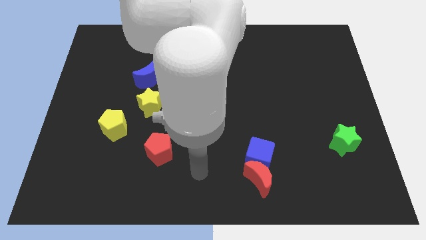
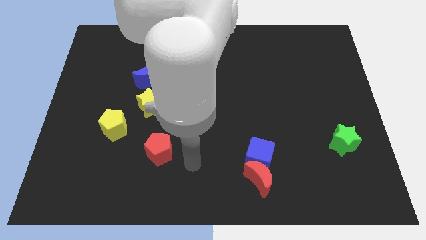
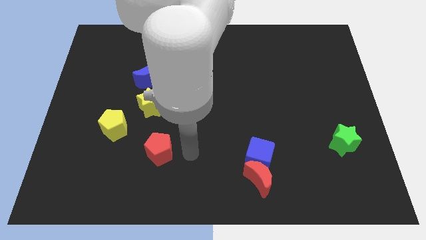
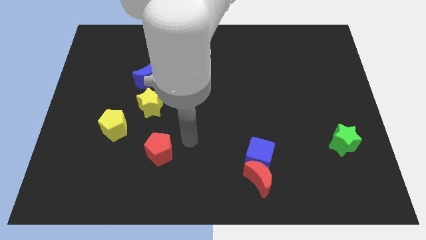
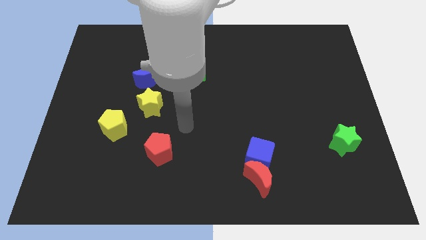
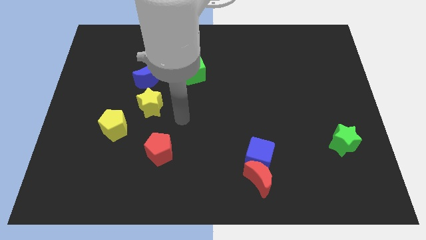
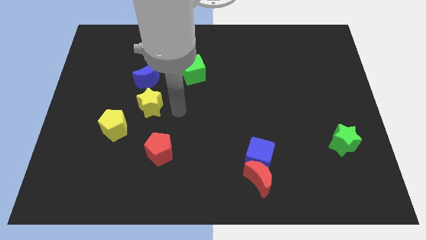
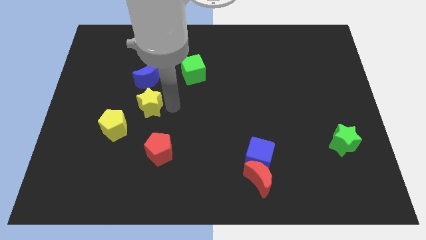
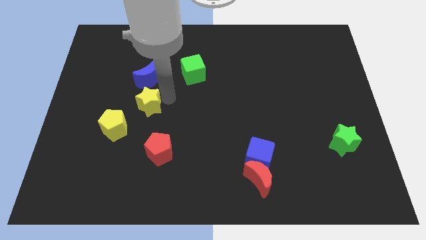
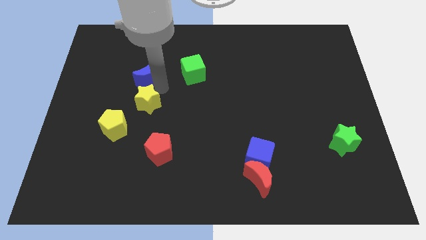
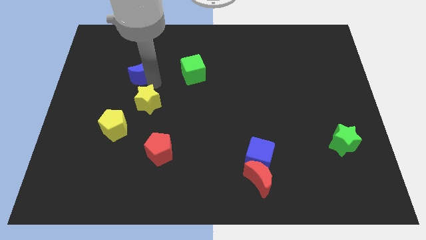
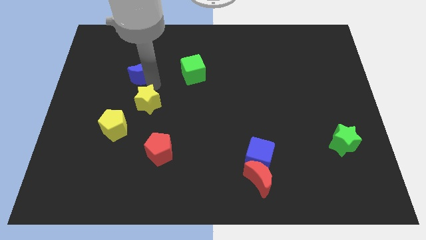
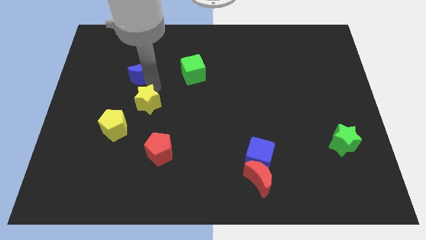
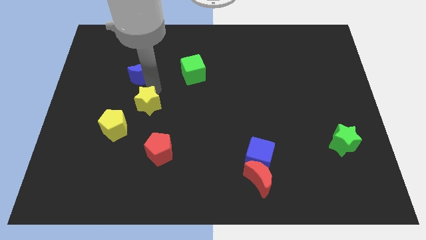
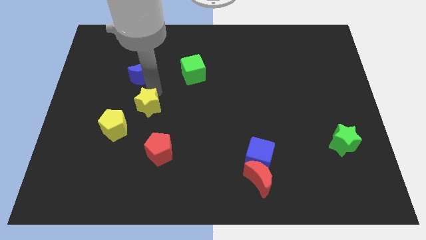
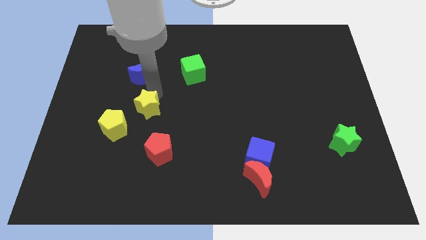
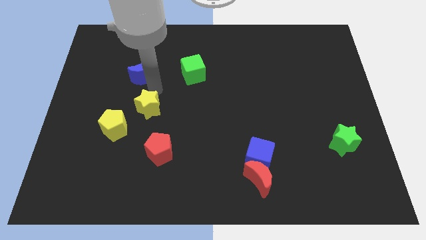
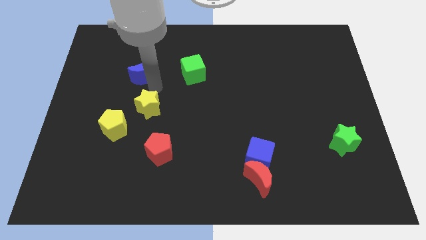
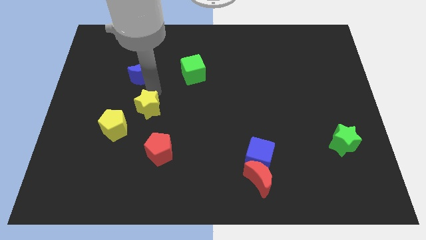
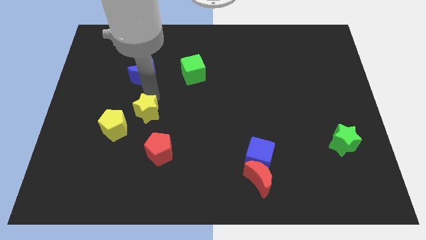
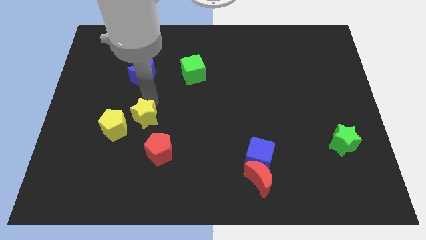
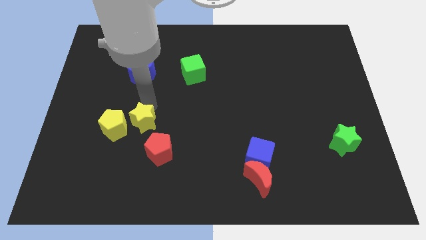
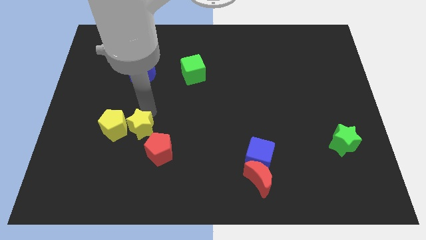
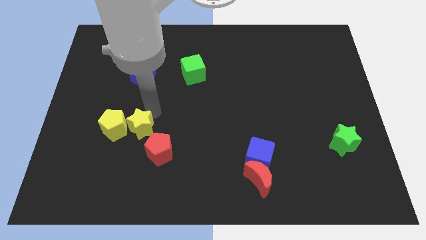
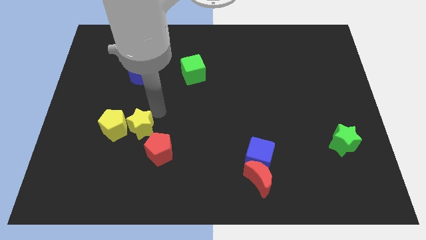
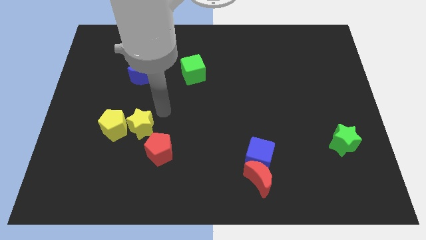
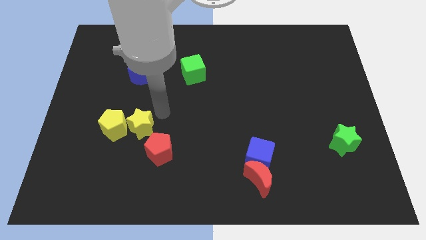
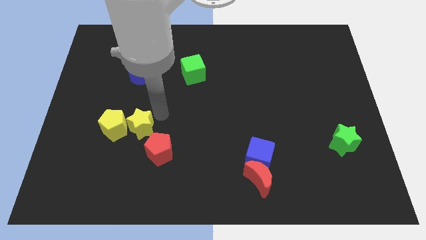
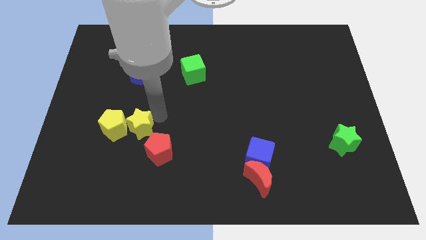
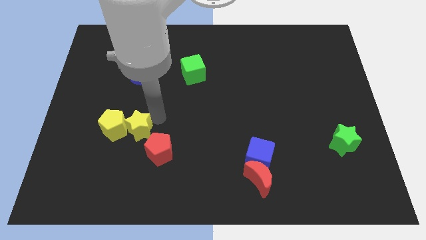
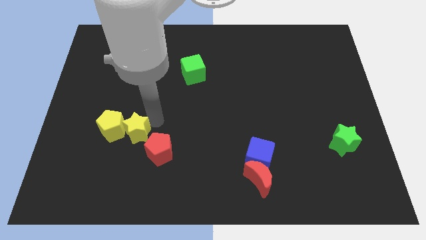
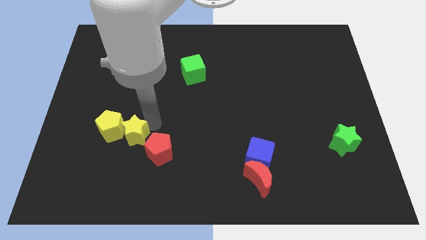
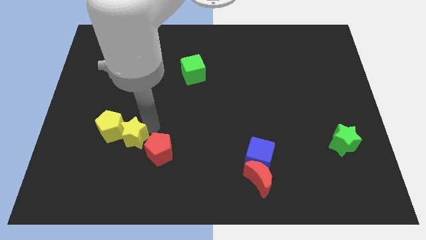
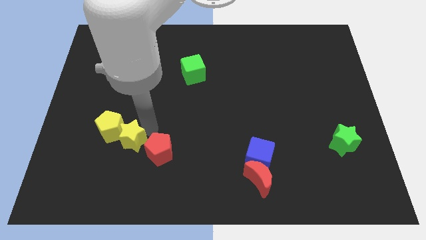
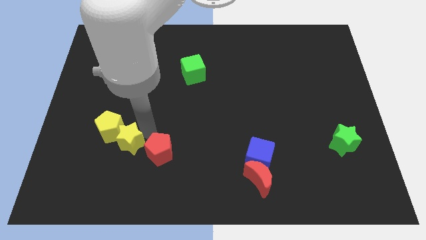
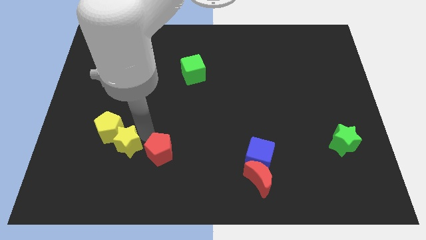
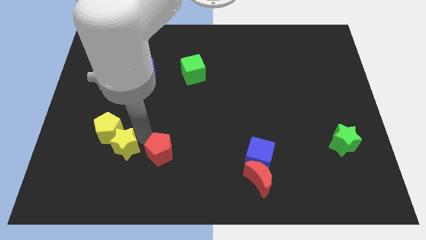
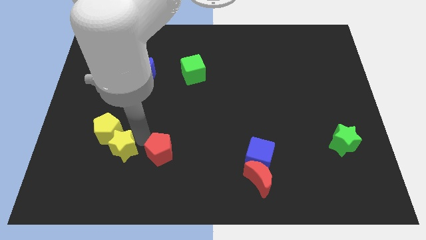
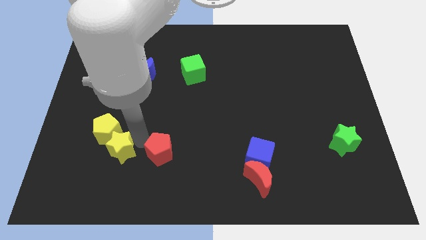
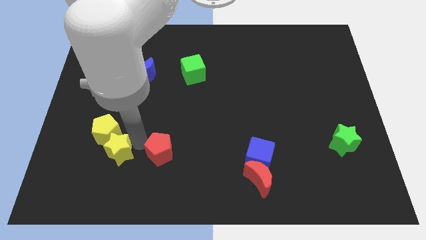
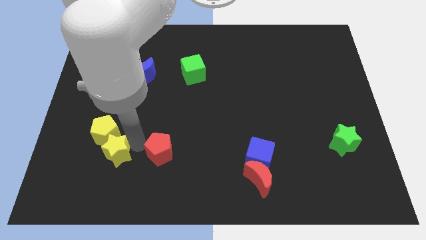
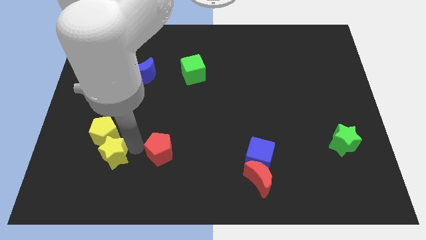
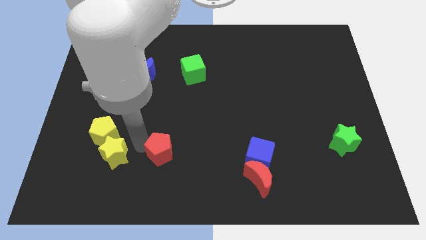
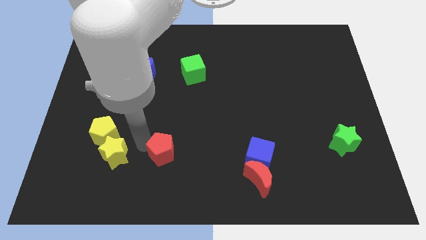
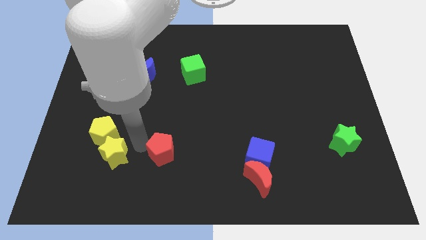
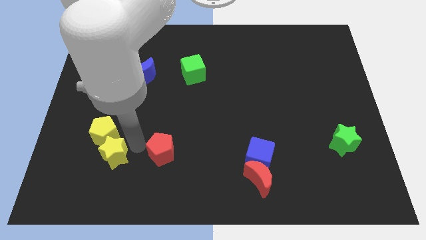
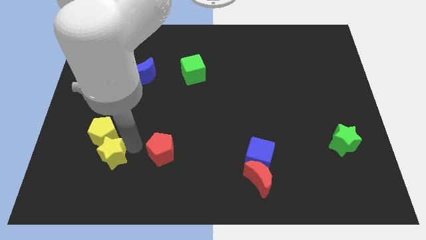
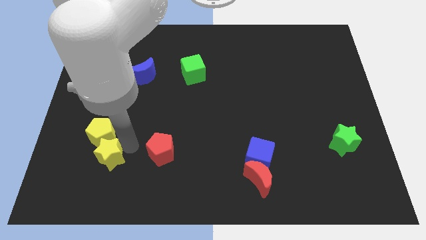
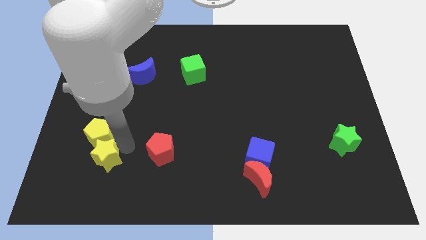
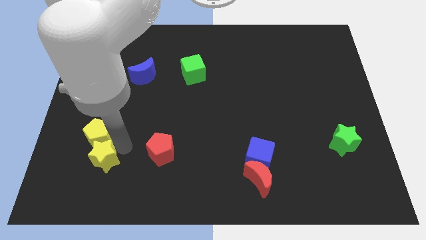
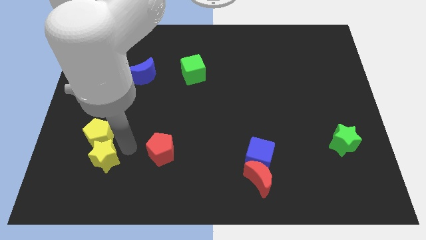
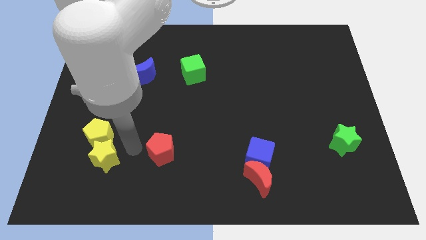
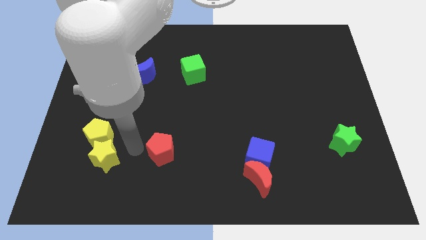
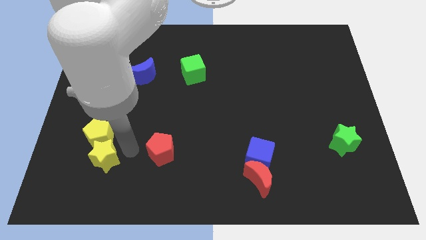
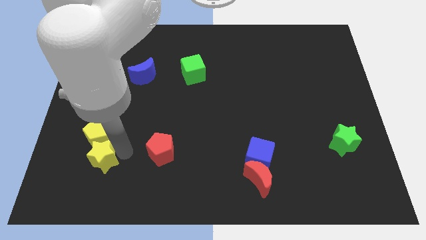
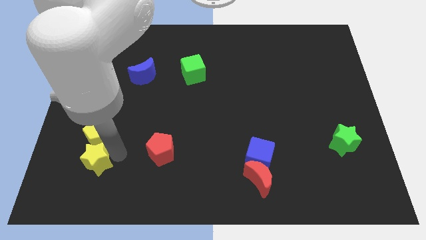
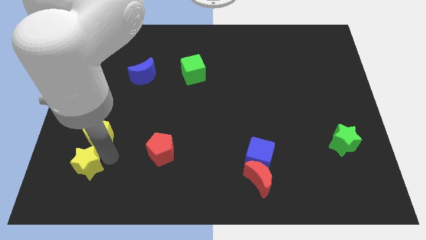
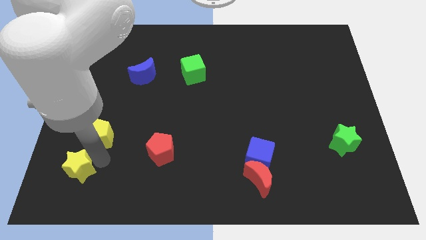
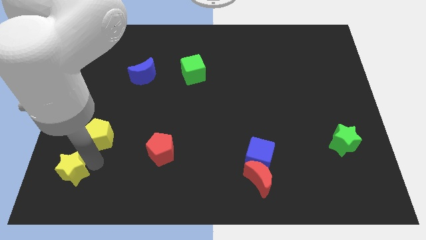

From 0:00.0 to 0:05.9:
push the yellow star to the bottom left

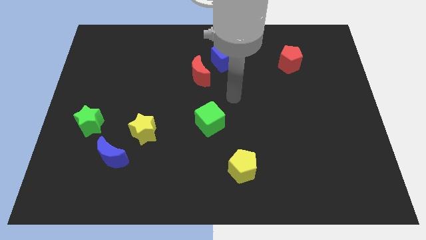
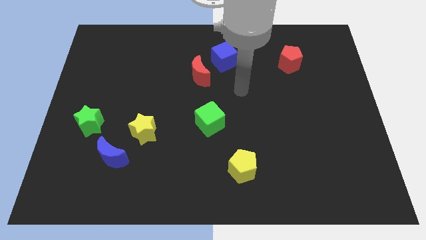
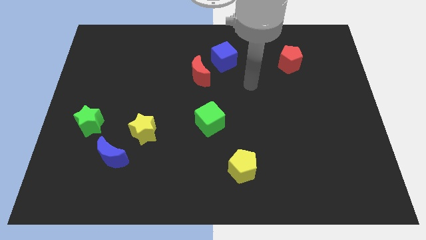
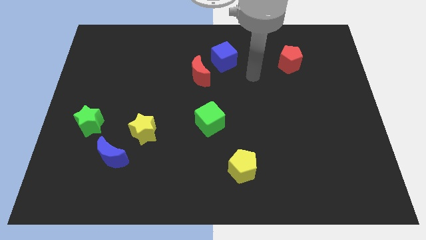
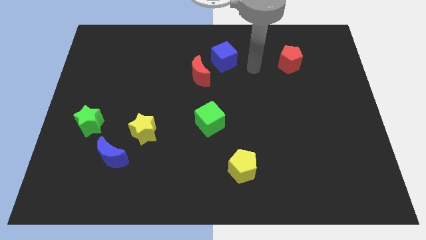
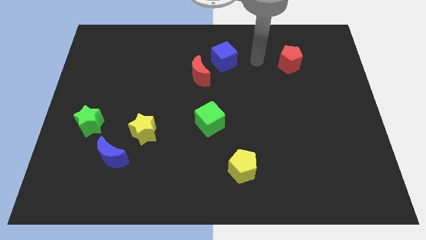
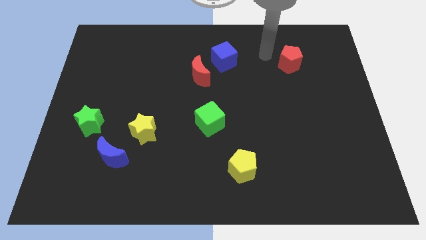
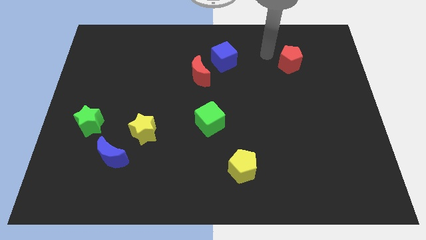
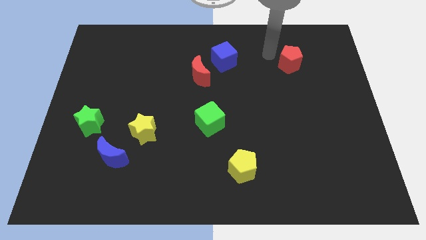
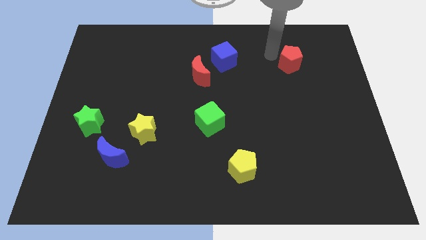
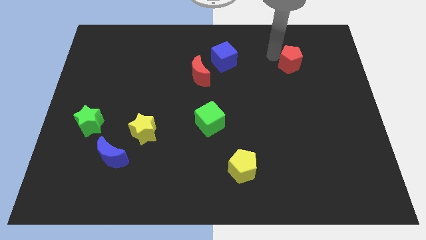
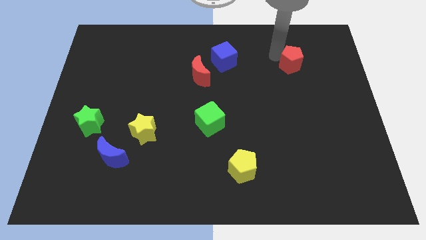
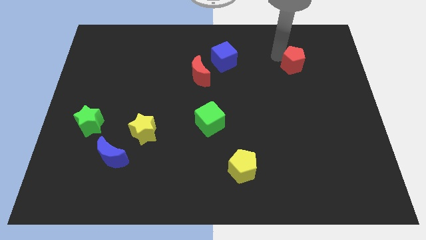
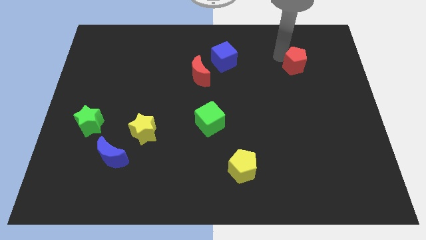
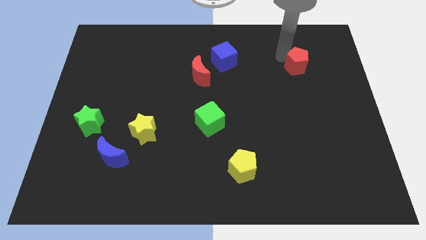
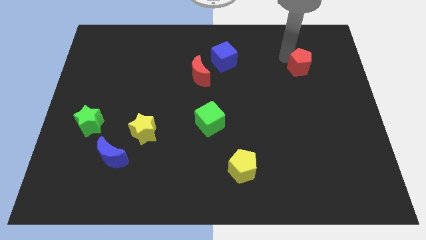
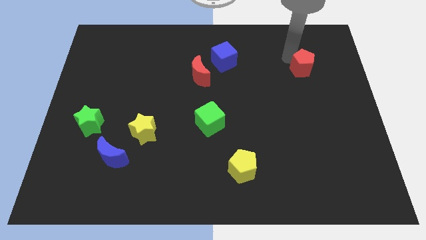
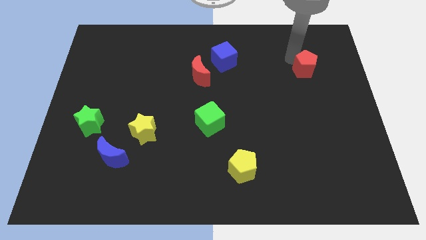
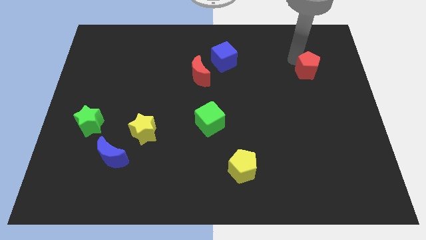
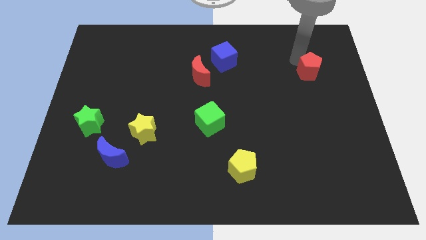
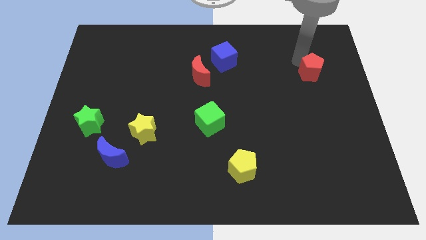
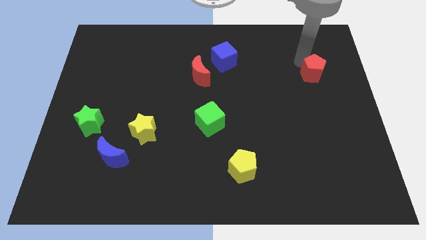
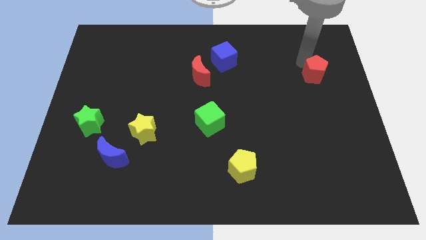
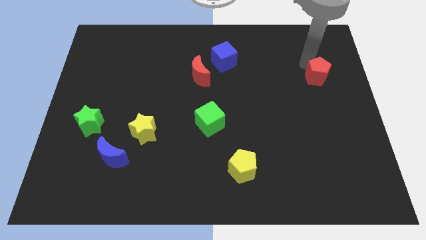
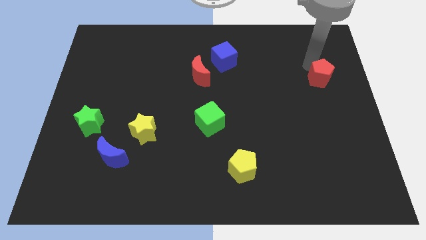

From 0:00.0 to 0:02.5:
slide the red pentagon to the right side
